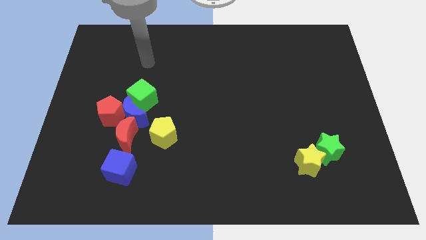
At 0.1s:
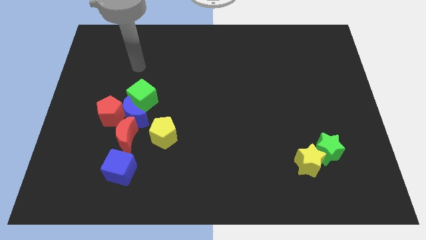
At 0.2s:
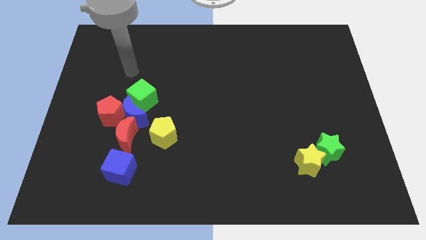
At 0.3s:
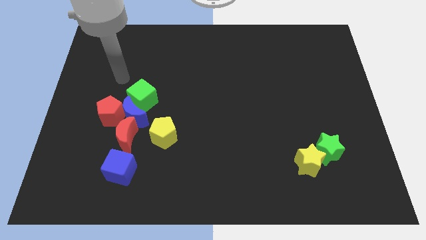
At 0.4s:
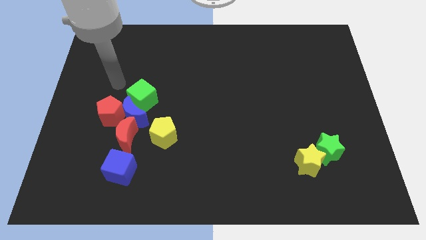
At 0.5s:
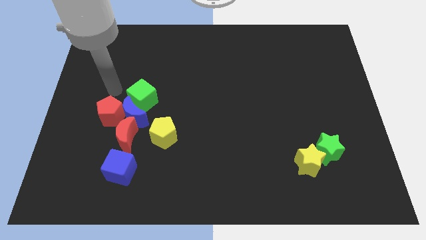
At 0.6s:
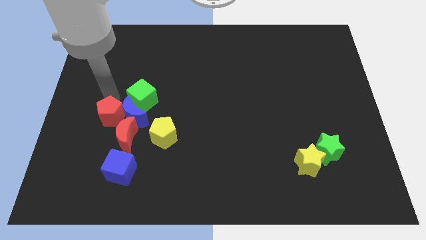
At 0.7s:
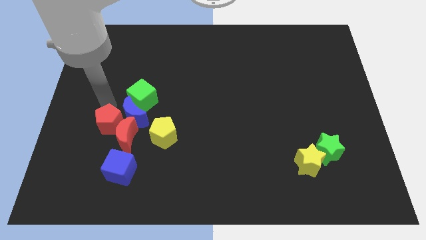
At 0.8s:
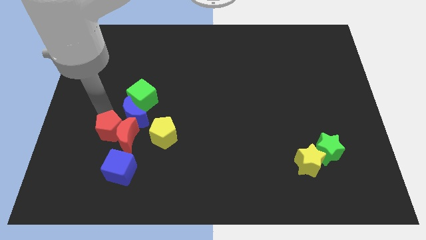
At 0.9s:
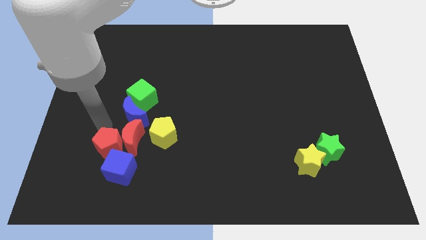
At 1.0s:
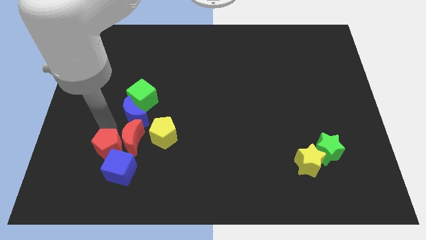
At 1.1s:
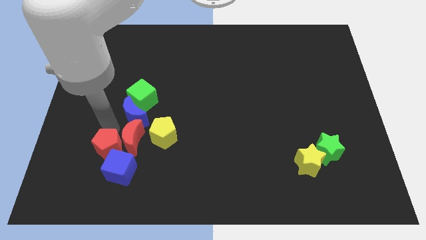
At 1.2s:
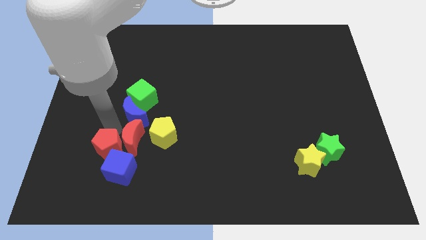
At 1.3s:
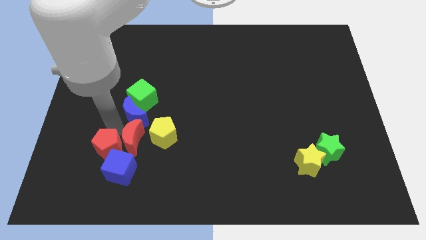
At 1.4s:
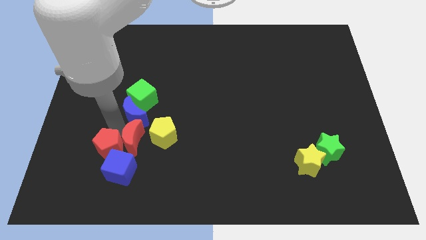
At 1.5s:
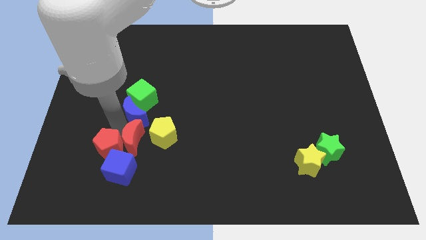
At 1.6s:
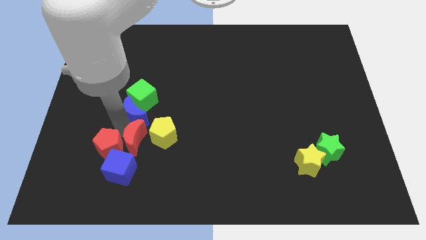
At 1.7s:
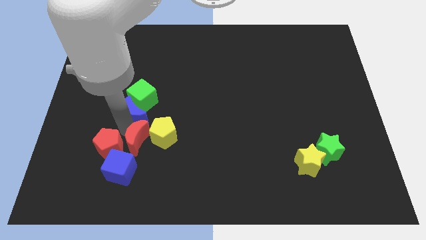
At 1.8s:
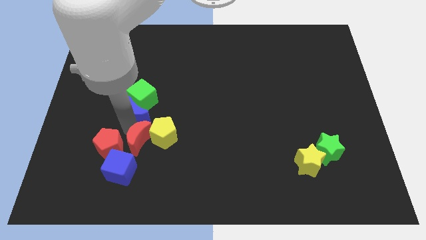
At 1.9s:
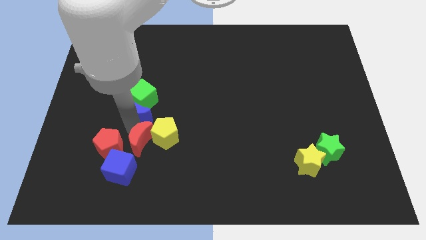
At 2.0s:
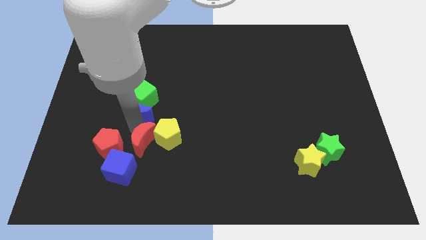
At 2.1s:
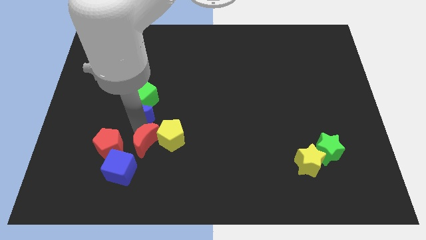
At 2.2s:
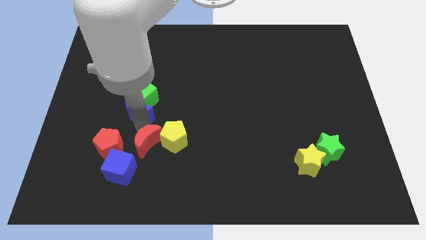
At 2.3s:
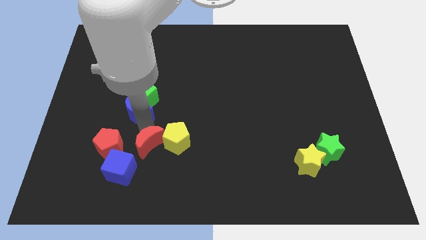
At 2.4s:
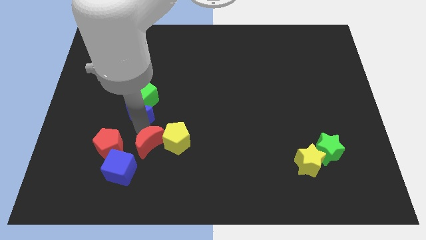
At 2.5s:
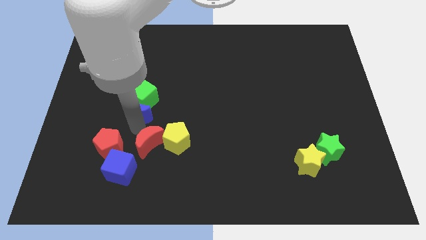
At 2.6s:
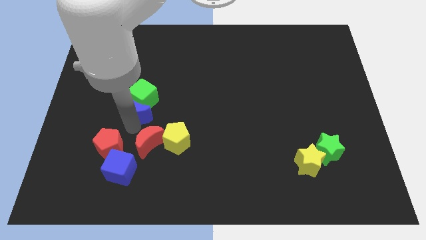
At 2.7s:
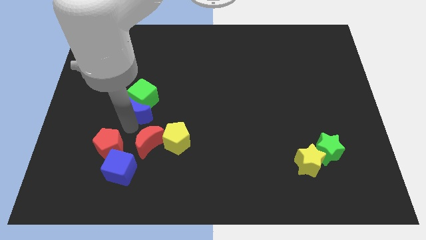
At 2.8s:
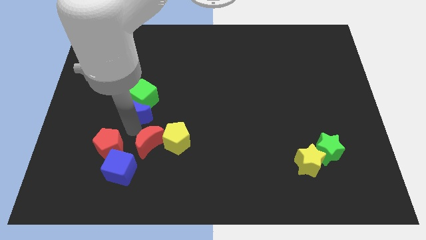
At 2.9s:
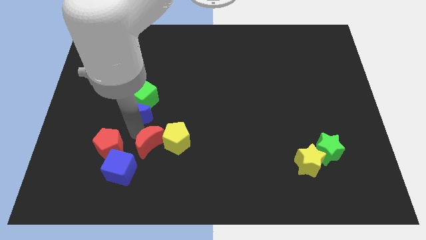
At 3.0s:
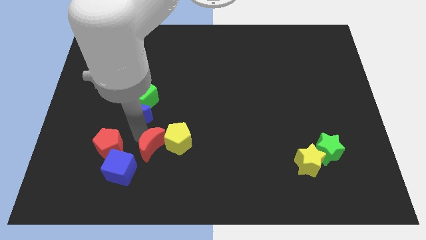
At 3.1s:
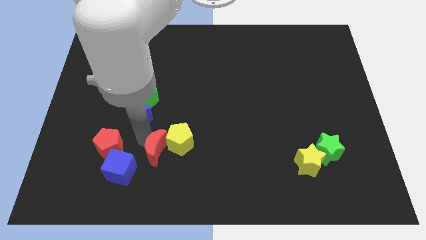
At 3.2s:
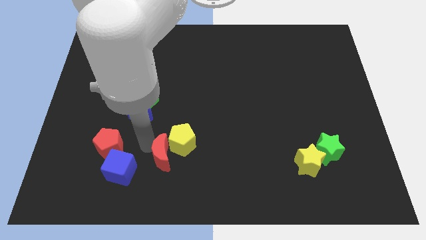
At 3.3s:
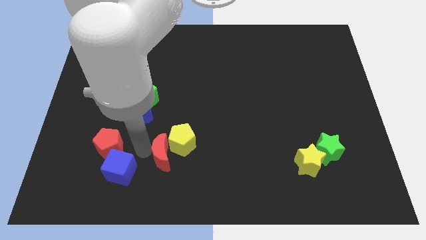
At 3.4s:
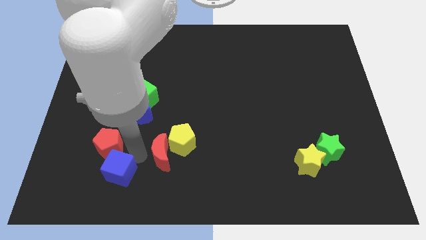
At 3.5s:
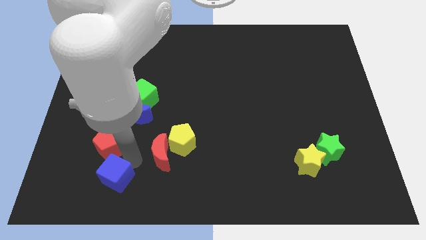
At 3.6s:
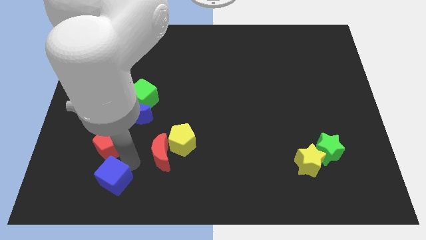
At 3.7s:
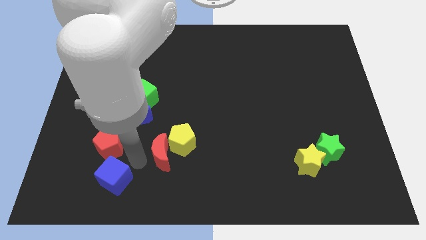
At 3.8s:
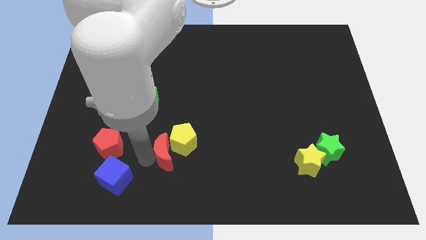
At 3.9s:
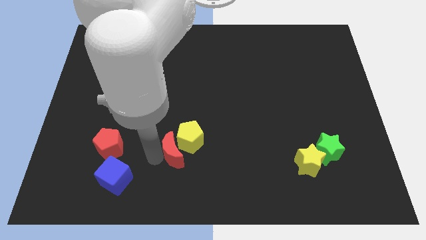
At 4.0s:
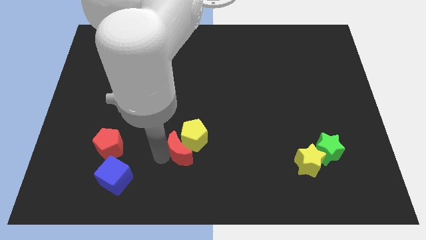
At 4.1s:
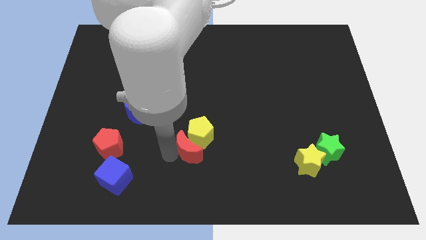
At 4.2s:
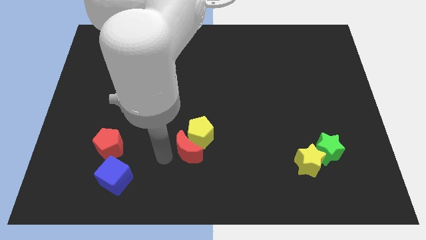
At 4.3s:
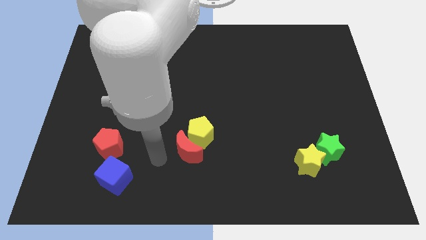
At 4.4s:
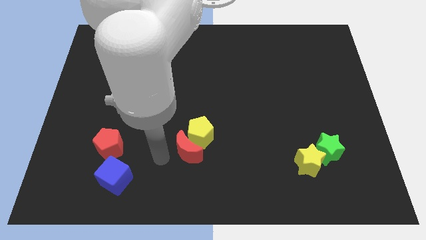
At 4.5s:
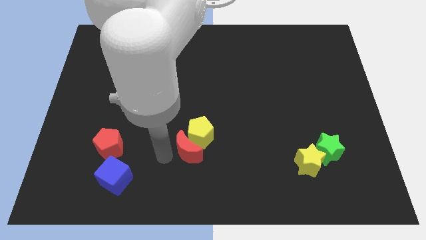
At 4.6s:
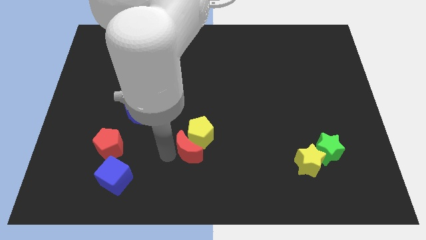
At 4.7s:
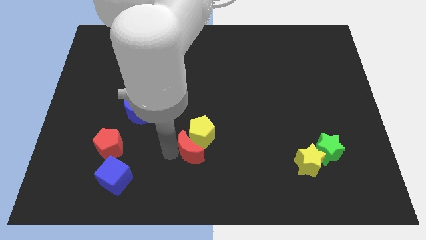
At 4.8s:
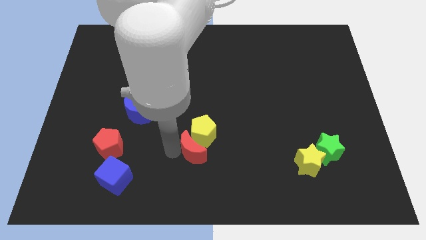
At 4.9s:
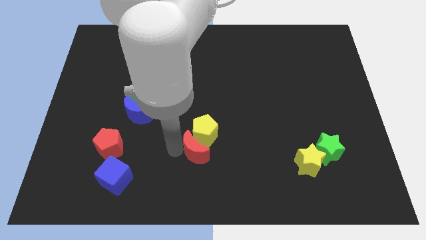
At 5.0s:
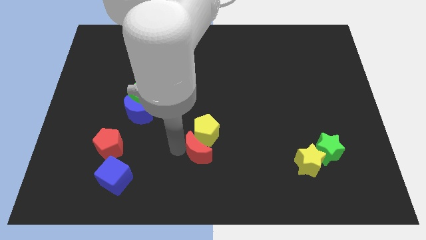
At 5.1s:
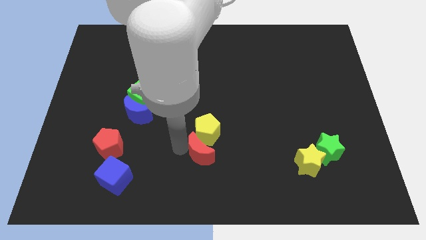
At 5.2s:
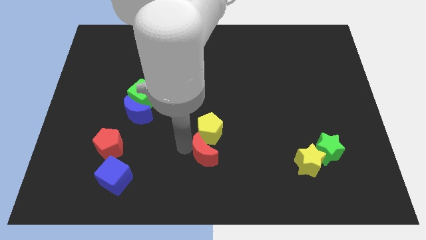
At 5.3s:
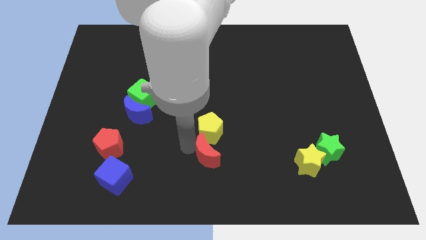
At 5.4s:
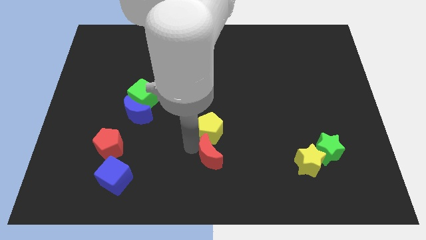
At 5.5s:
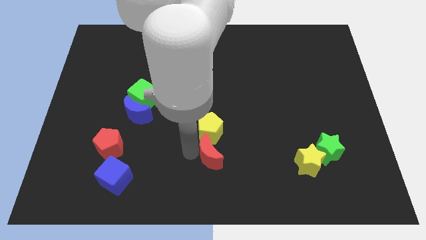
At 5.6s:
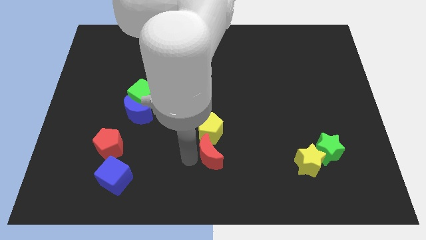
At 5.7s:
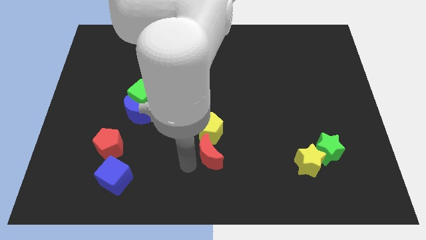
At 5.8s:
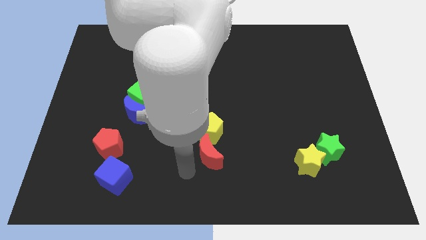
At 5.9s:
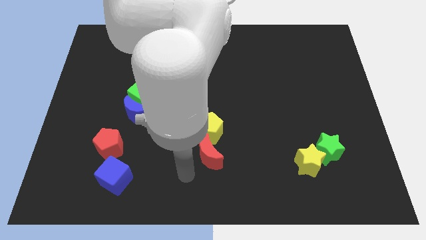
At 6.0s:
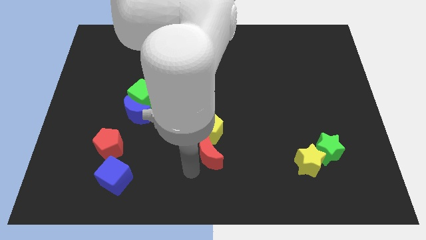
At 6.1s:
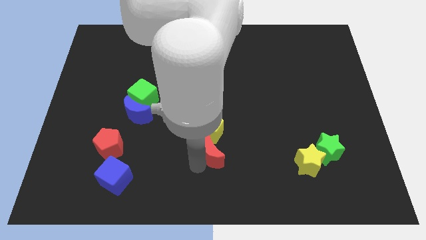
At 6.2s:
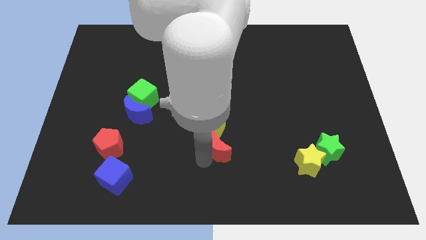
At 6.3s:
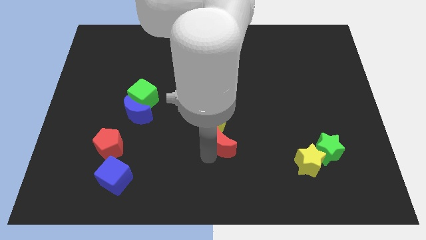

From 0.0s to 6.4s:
push the red moon right

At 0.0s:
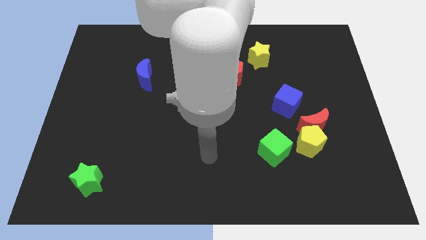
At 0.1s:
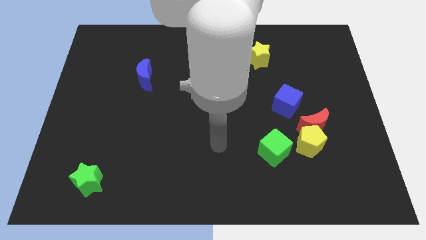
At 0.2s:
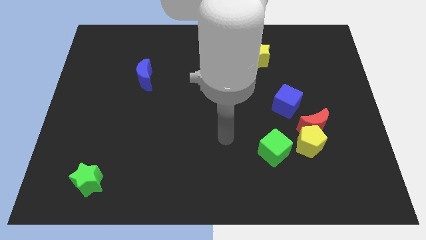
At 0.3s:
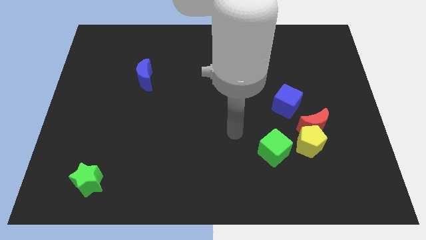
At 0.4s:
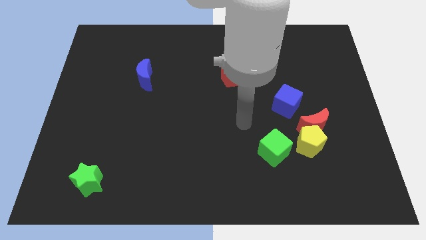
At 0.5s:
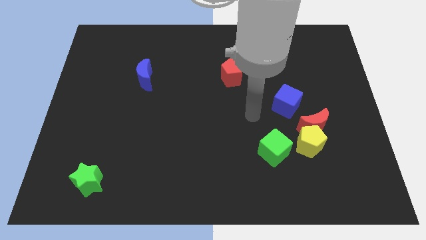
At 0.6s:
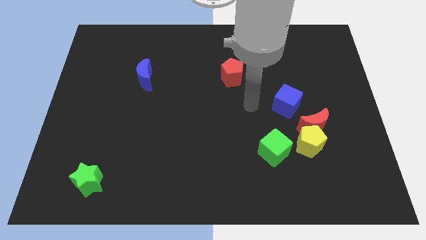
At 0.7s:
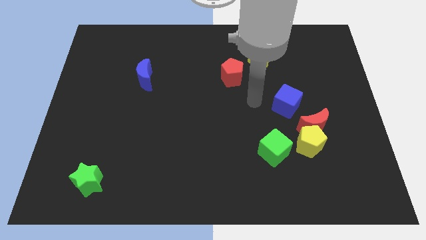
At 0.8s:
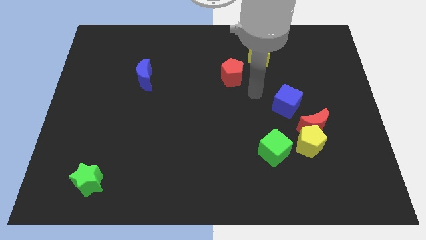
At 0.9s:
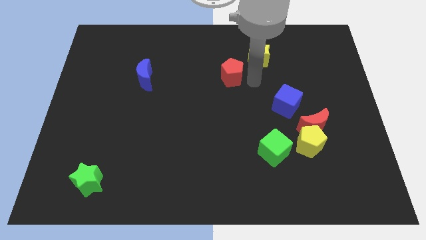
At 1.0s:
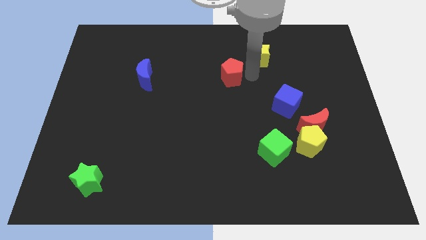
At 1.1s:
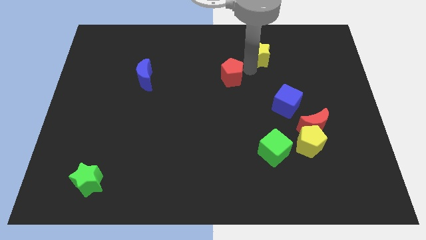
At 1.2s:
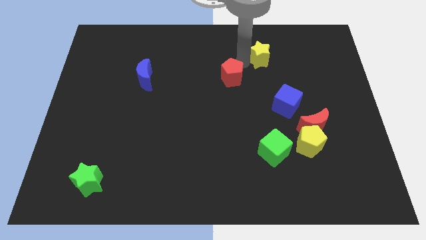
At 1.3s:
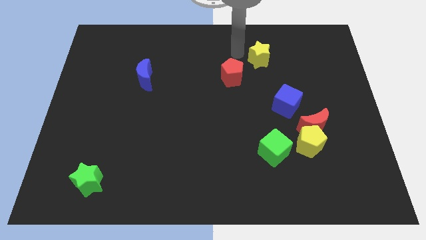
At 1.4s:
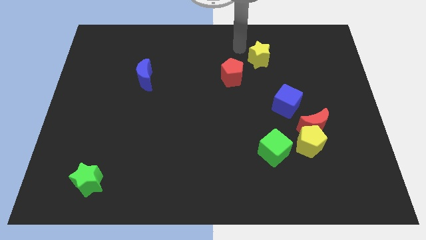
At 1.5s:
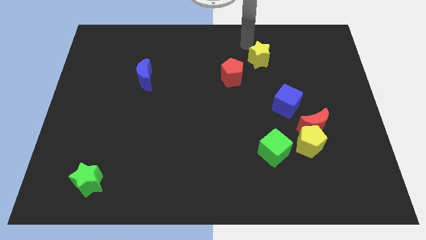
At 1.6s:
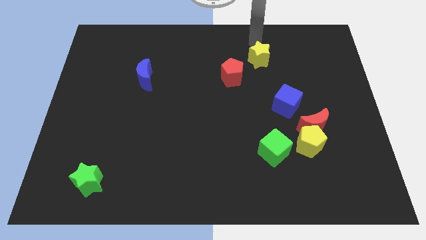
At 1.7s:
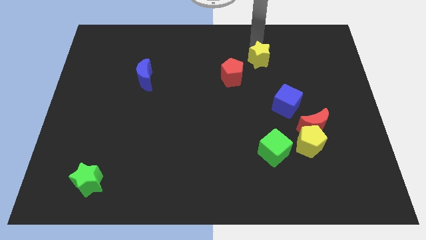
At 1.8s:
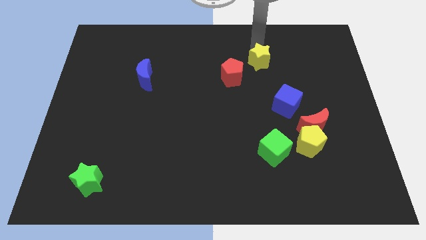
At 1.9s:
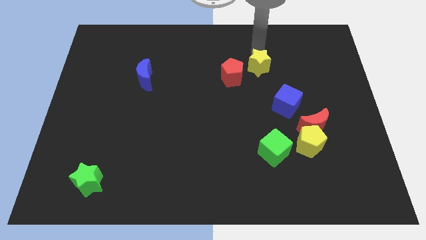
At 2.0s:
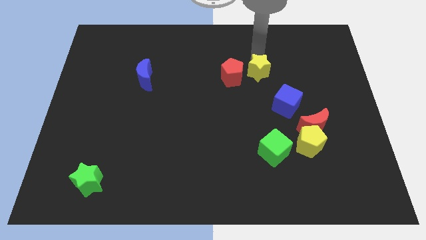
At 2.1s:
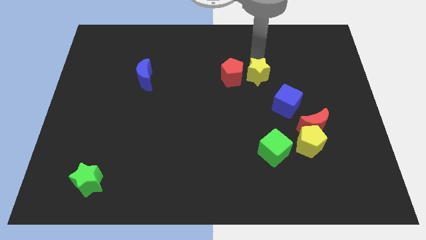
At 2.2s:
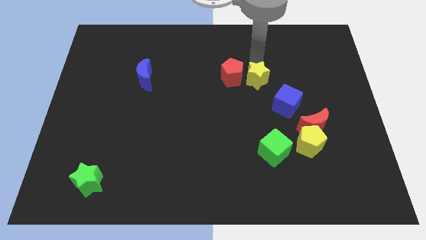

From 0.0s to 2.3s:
slightly slide the yellow star downwards
